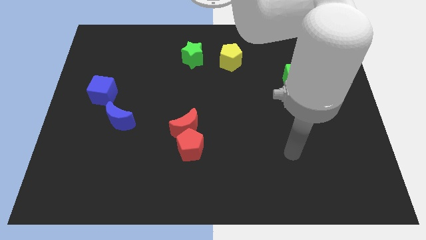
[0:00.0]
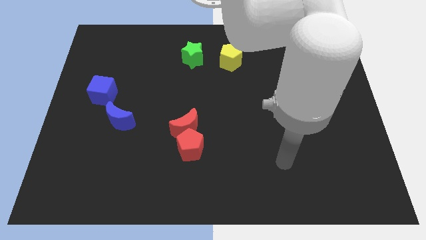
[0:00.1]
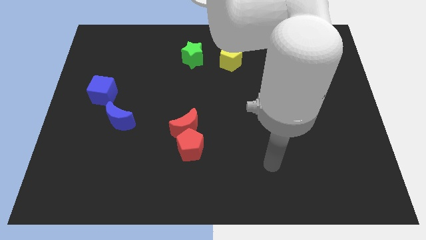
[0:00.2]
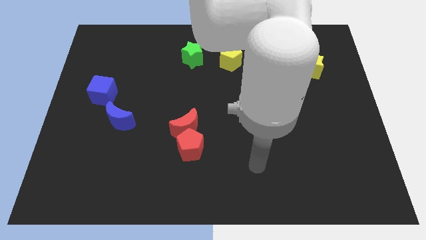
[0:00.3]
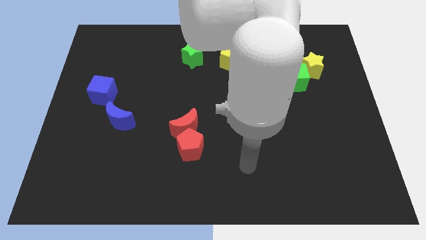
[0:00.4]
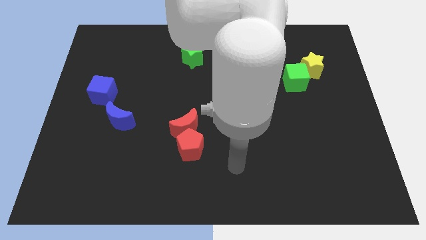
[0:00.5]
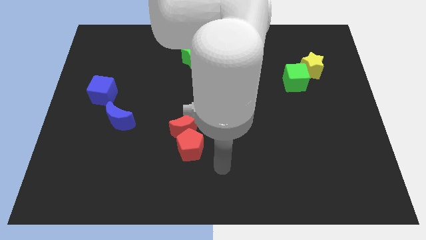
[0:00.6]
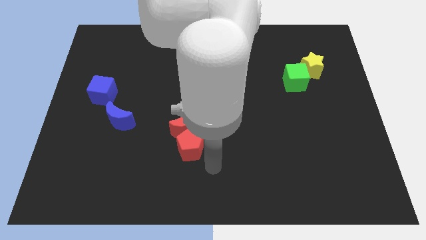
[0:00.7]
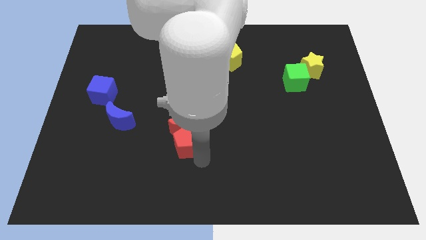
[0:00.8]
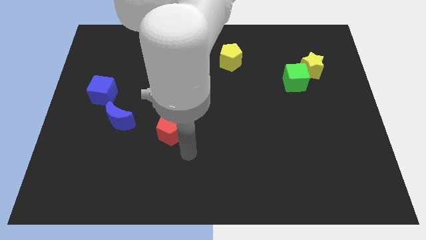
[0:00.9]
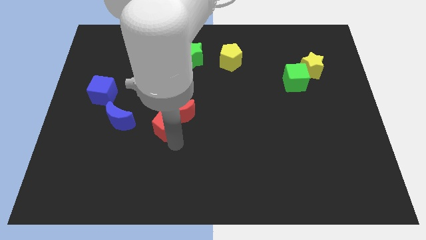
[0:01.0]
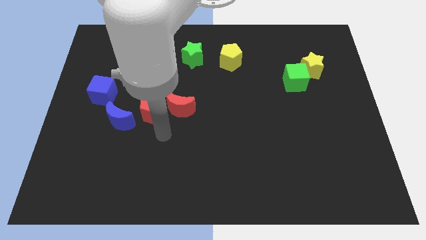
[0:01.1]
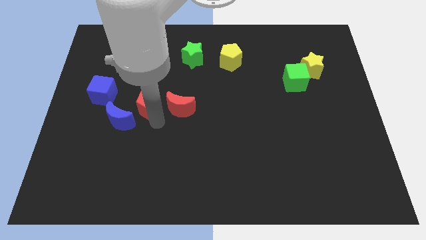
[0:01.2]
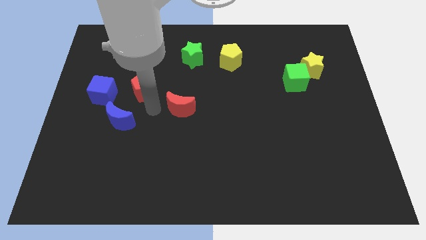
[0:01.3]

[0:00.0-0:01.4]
separate the red moon from the red pentagon

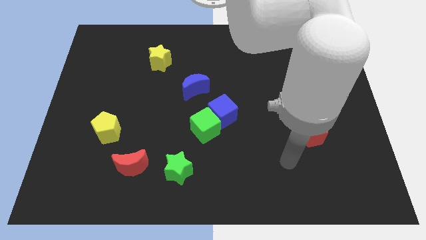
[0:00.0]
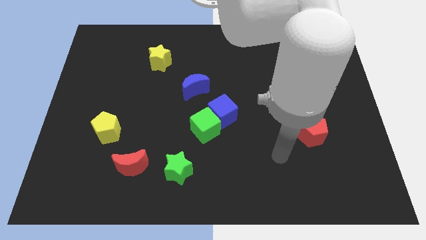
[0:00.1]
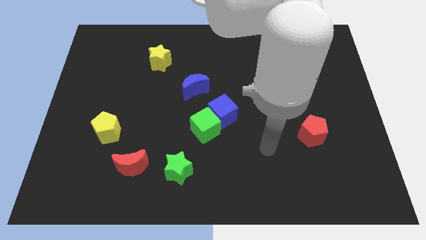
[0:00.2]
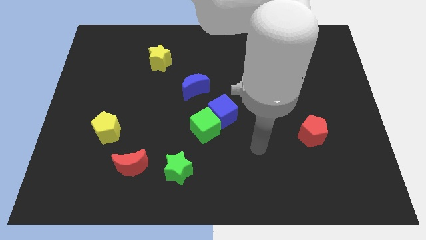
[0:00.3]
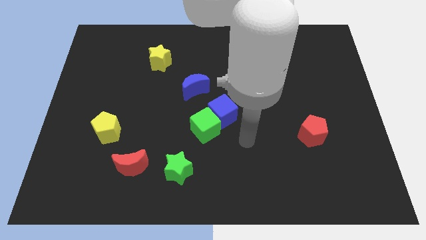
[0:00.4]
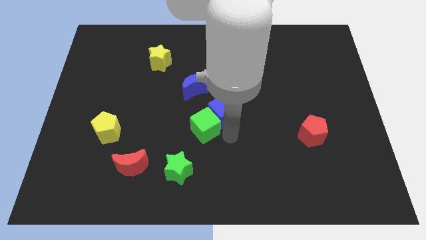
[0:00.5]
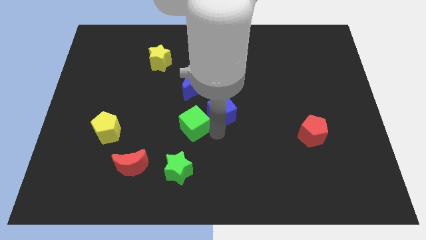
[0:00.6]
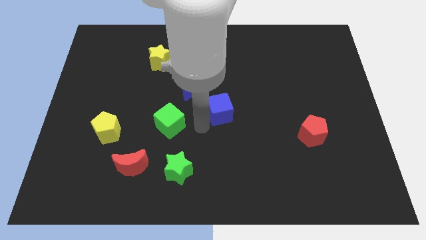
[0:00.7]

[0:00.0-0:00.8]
separate the blue cube from the green cube

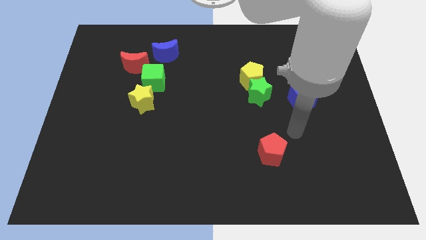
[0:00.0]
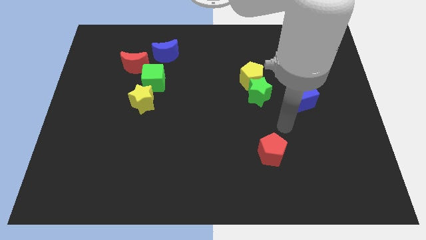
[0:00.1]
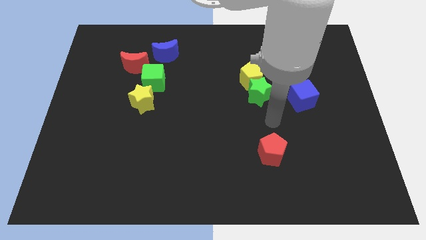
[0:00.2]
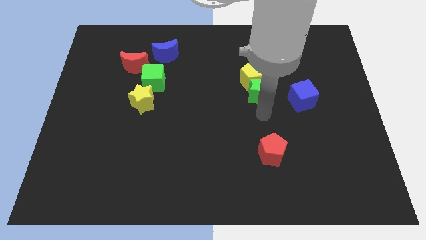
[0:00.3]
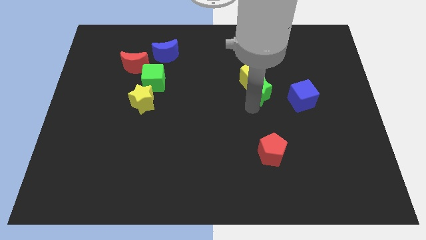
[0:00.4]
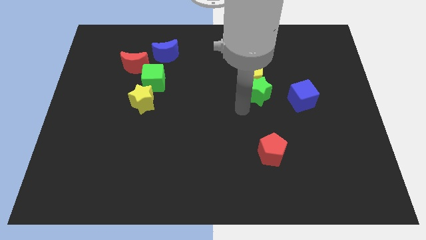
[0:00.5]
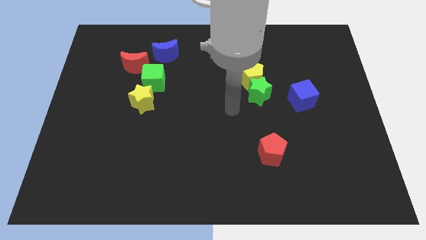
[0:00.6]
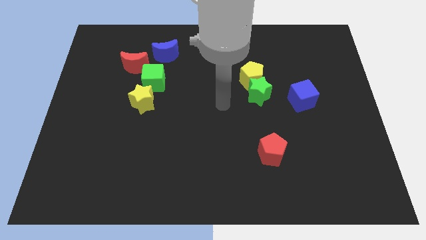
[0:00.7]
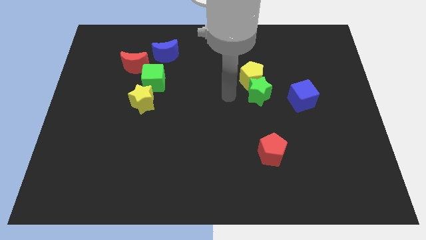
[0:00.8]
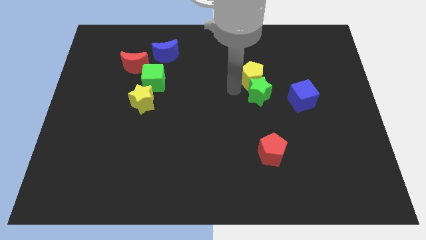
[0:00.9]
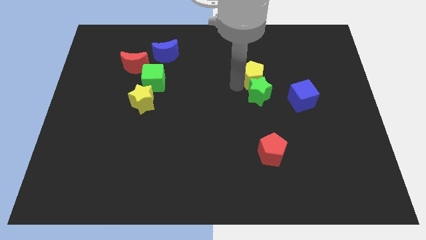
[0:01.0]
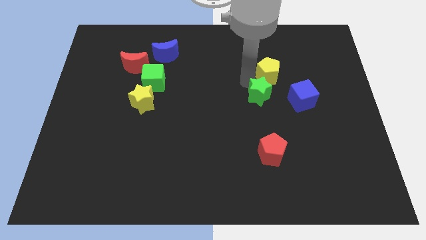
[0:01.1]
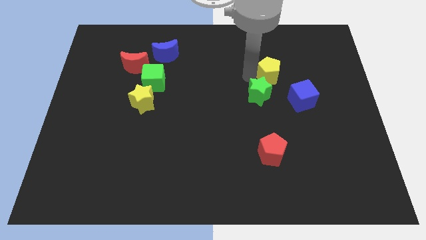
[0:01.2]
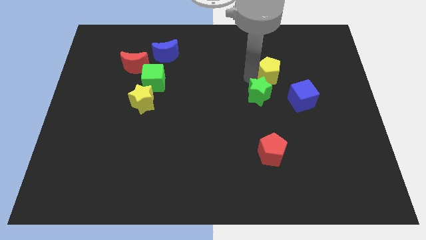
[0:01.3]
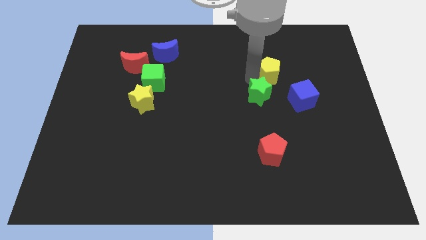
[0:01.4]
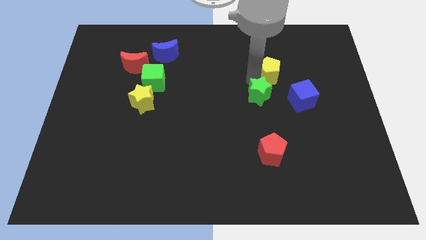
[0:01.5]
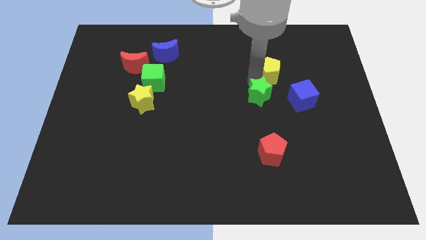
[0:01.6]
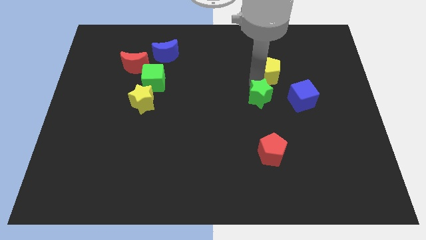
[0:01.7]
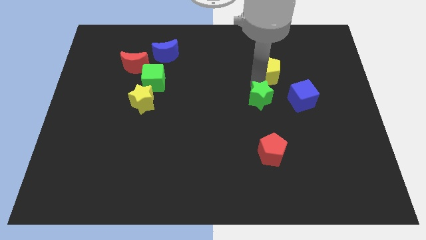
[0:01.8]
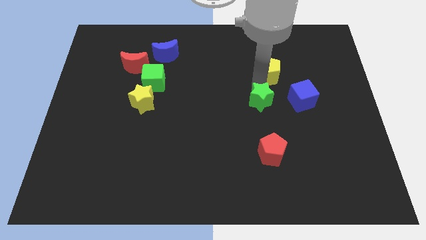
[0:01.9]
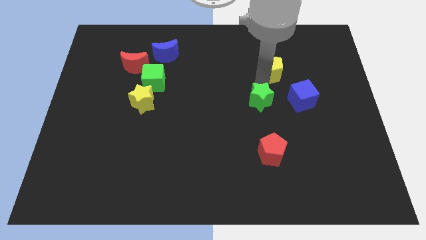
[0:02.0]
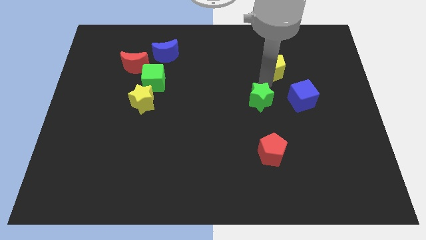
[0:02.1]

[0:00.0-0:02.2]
separate the green star from the yellow pentagon

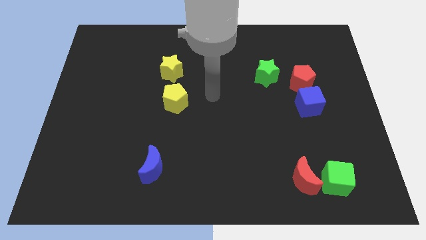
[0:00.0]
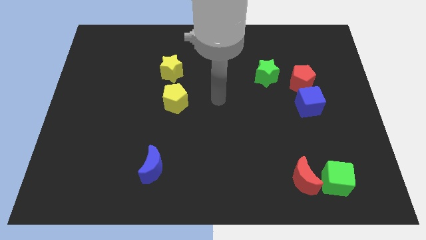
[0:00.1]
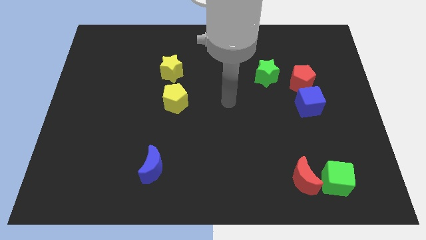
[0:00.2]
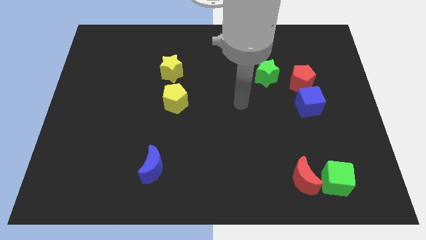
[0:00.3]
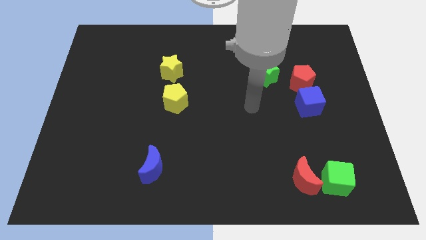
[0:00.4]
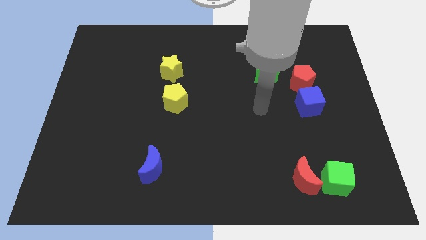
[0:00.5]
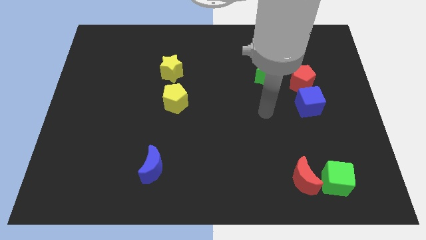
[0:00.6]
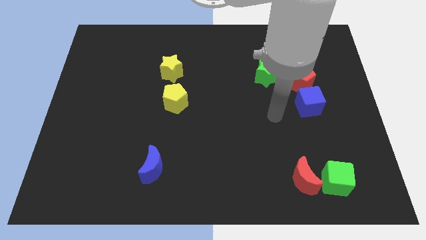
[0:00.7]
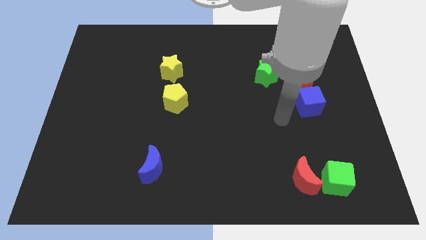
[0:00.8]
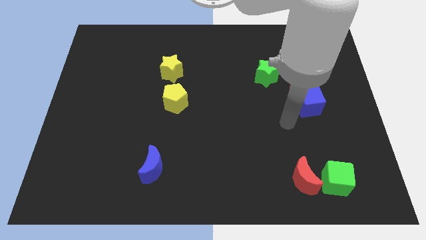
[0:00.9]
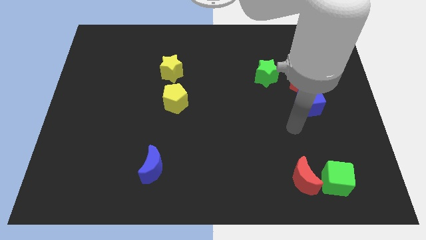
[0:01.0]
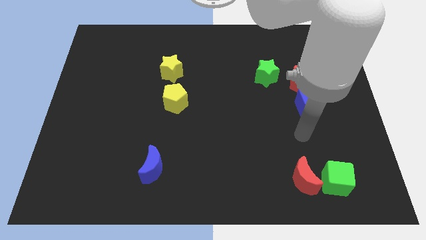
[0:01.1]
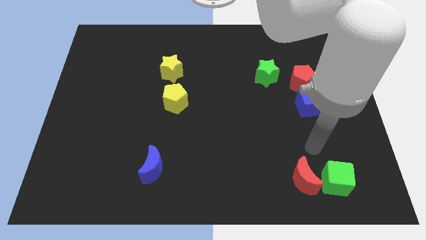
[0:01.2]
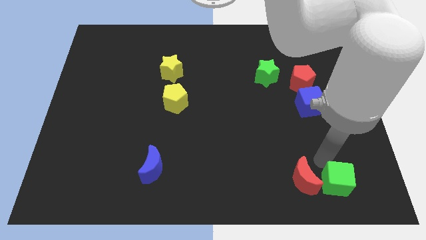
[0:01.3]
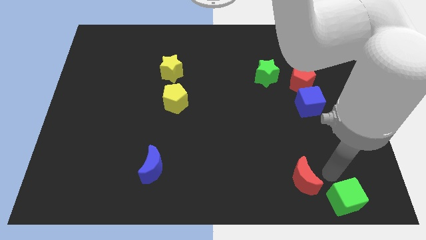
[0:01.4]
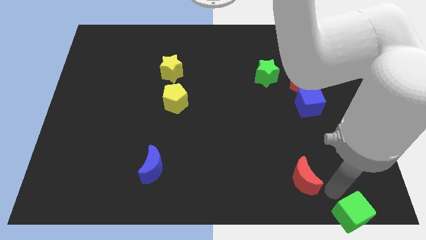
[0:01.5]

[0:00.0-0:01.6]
move the red moon away from the green cube

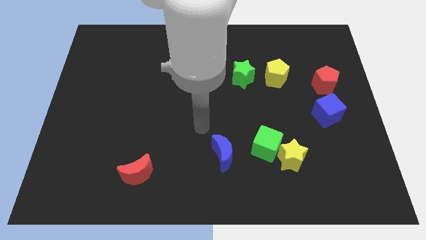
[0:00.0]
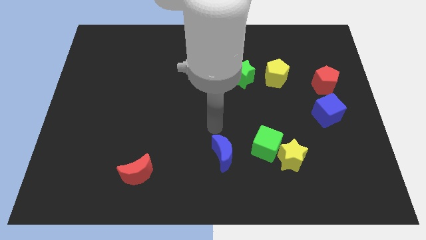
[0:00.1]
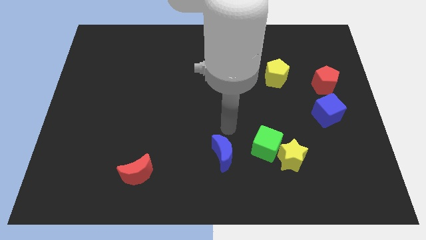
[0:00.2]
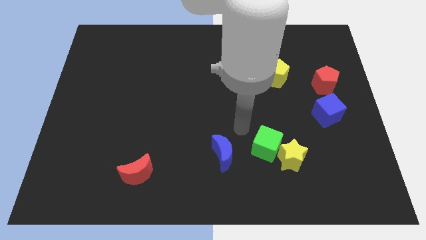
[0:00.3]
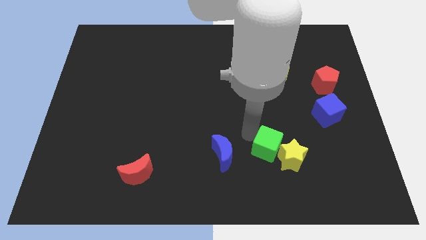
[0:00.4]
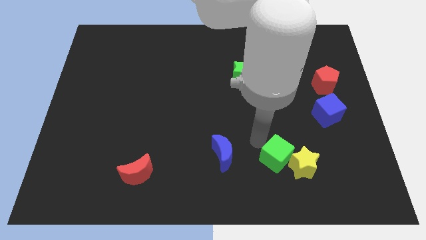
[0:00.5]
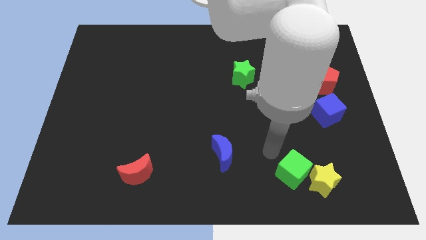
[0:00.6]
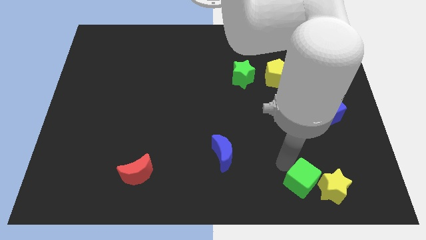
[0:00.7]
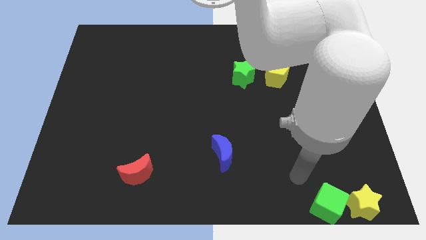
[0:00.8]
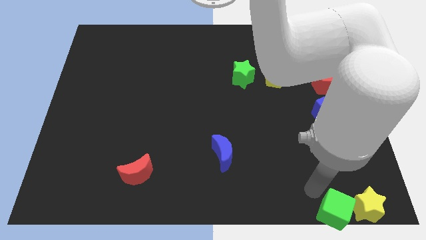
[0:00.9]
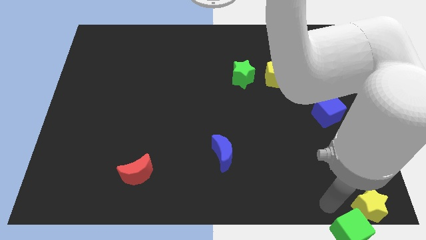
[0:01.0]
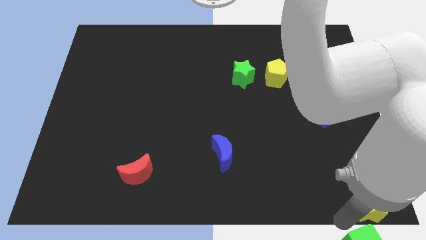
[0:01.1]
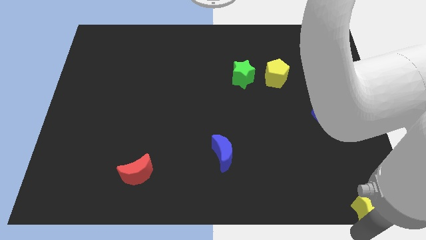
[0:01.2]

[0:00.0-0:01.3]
separate the yellow star from the green cube

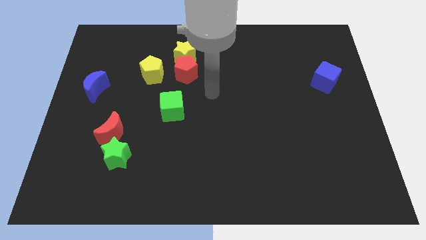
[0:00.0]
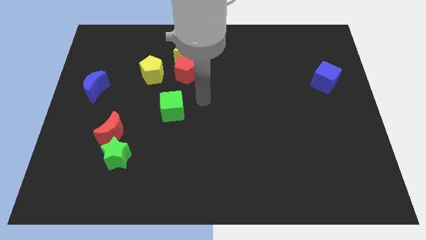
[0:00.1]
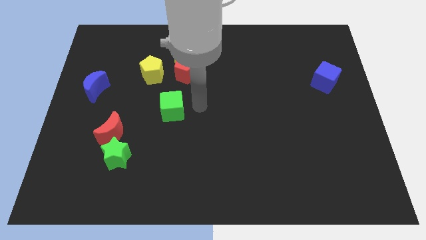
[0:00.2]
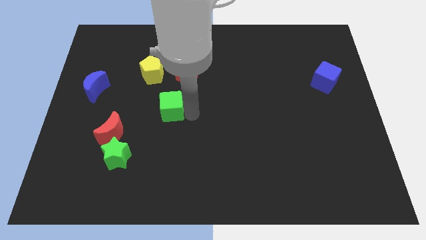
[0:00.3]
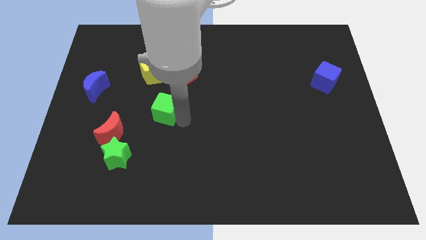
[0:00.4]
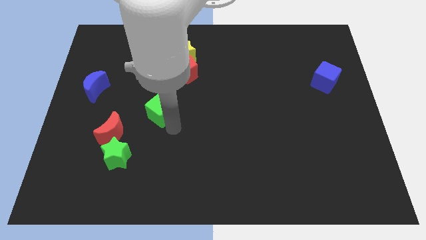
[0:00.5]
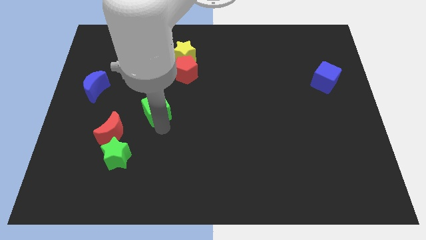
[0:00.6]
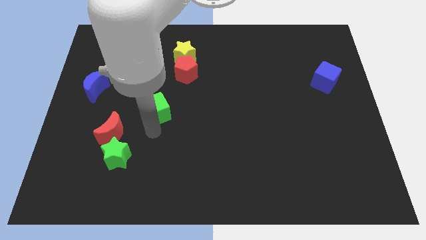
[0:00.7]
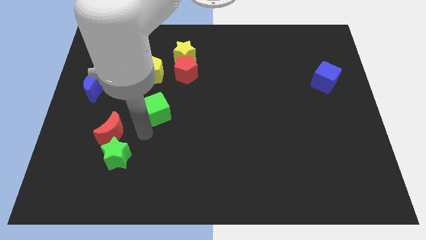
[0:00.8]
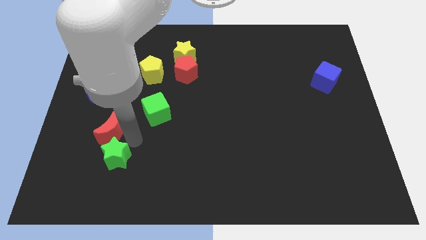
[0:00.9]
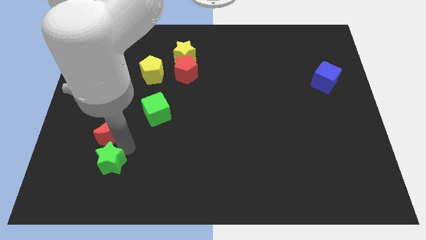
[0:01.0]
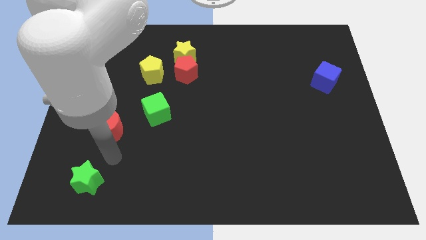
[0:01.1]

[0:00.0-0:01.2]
move the red moon away from the green star

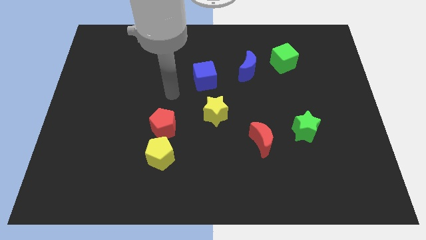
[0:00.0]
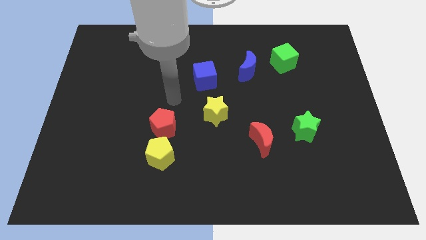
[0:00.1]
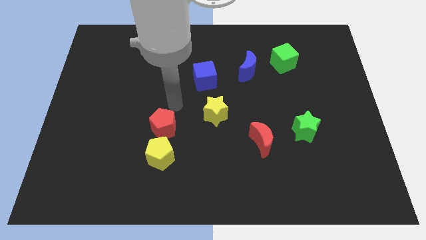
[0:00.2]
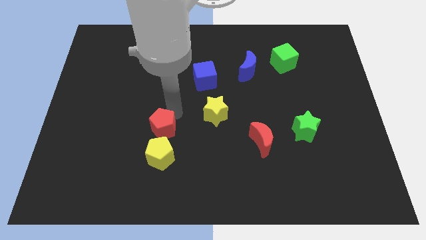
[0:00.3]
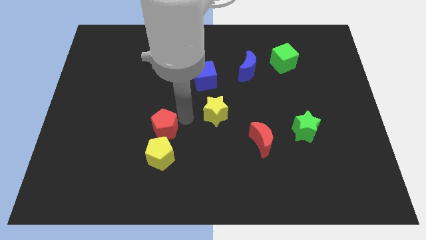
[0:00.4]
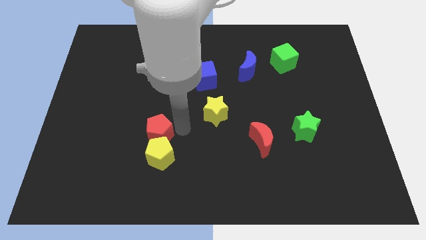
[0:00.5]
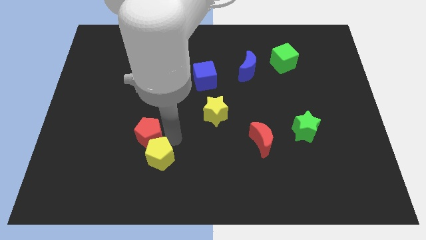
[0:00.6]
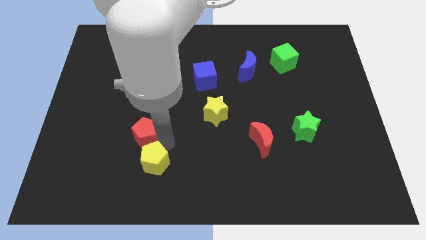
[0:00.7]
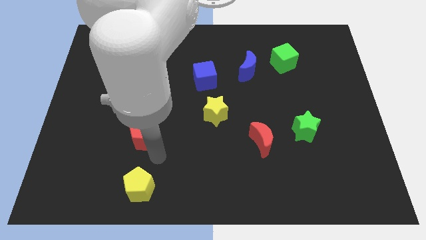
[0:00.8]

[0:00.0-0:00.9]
move the red pentagon away from the yellow pentagon
